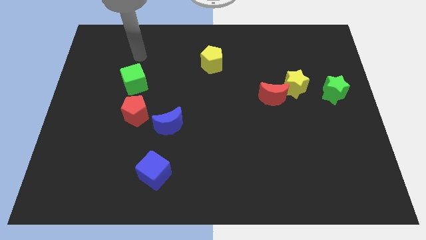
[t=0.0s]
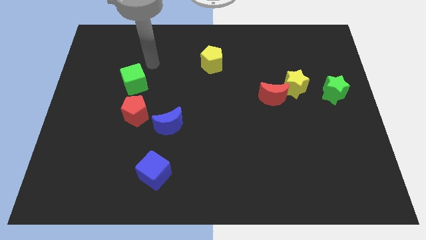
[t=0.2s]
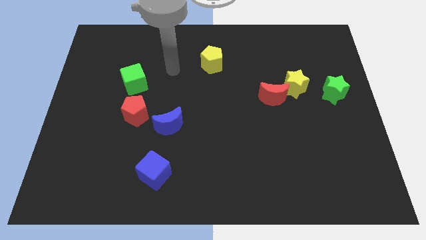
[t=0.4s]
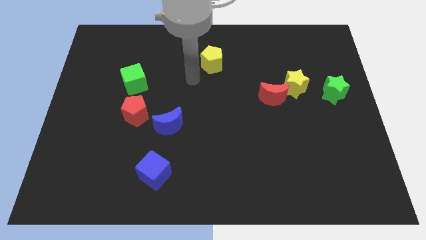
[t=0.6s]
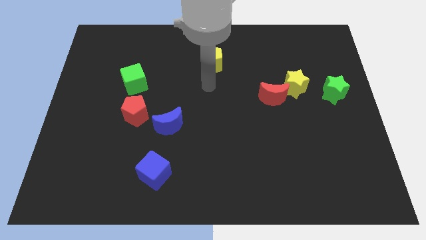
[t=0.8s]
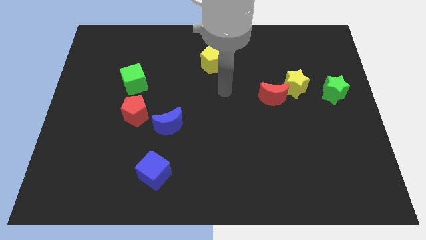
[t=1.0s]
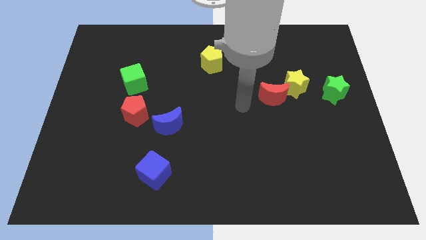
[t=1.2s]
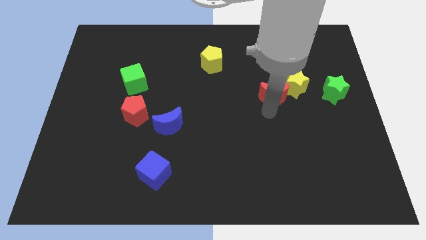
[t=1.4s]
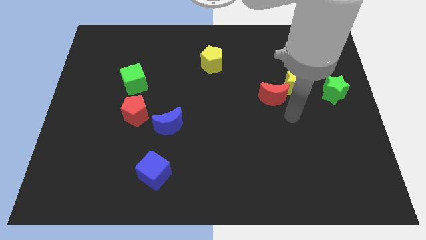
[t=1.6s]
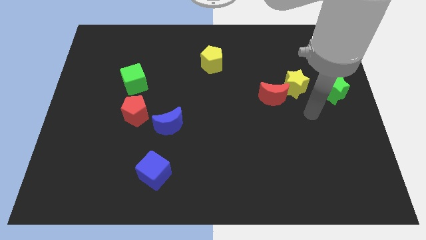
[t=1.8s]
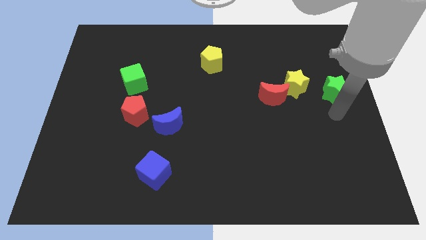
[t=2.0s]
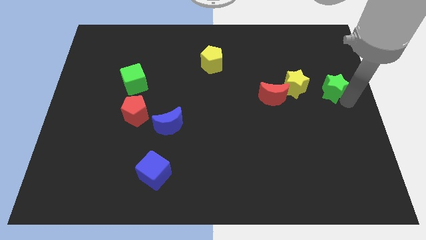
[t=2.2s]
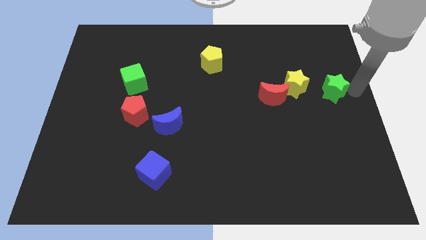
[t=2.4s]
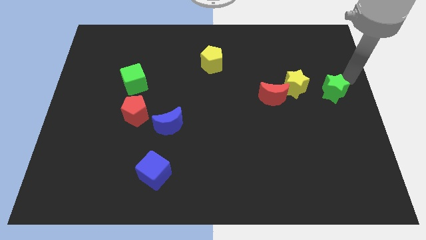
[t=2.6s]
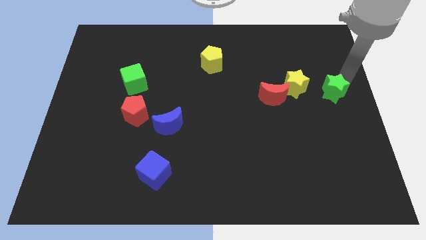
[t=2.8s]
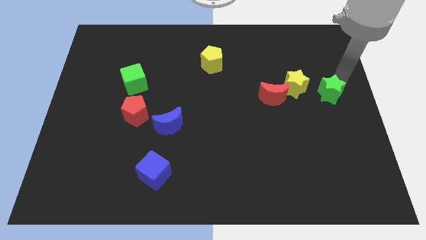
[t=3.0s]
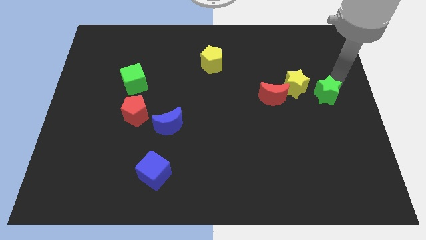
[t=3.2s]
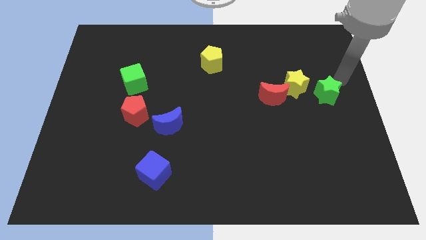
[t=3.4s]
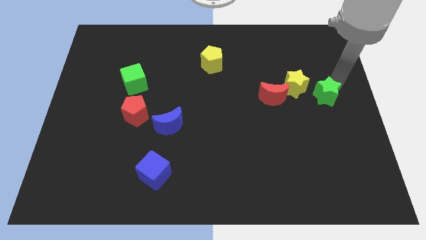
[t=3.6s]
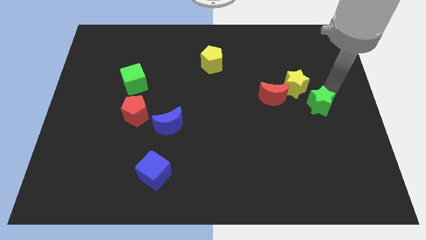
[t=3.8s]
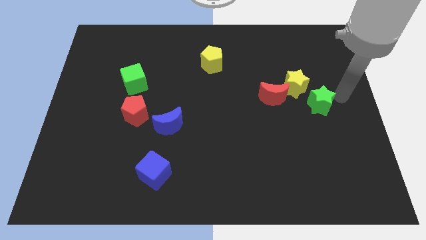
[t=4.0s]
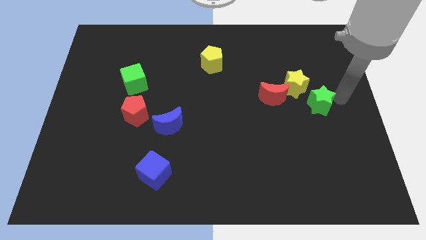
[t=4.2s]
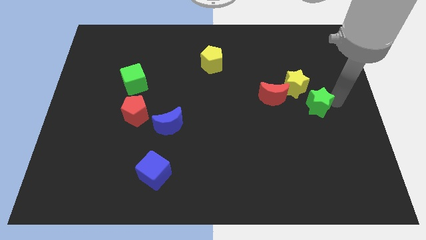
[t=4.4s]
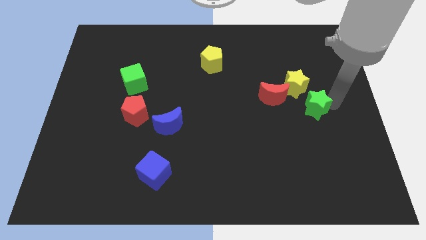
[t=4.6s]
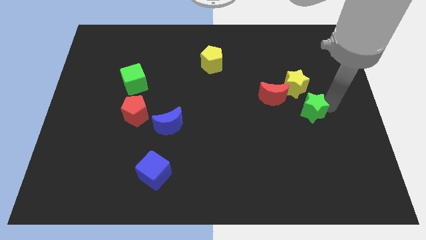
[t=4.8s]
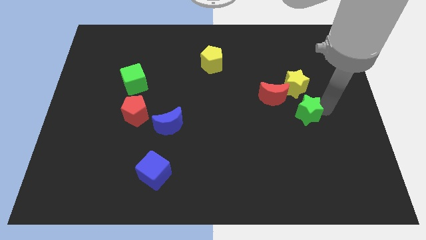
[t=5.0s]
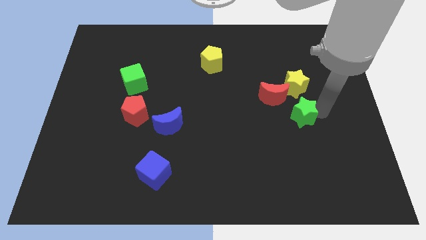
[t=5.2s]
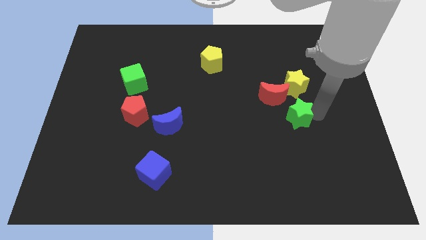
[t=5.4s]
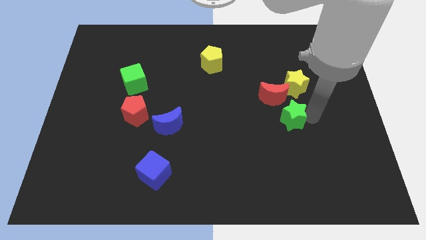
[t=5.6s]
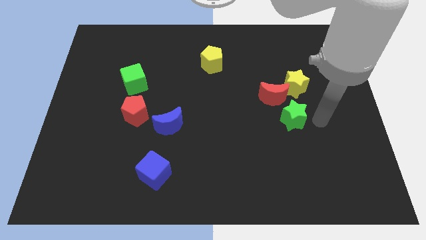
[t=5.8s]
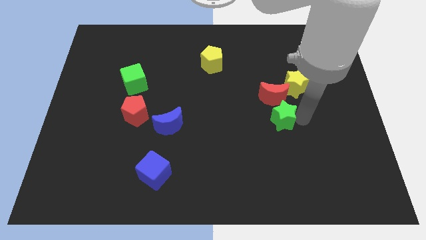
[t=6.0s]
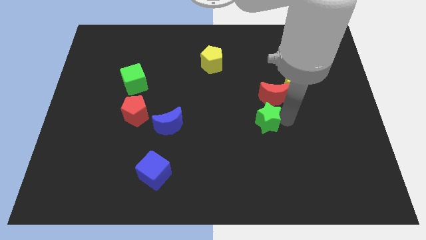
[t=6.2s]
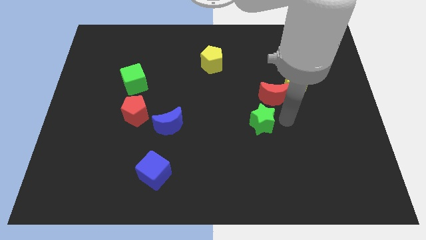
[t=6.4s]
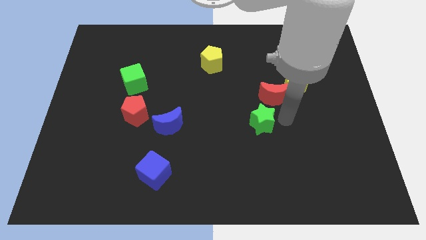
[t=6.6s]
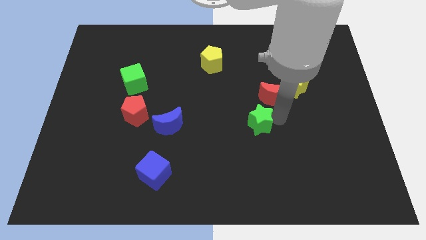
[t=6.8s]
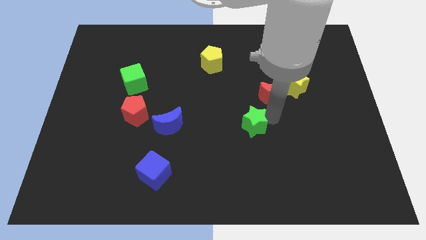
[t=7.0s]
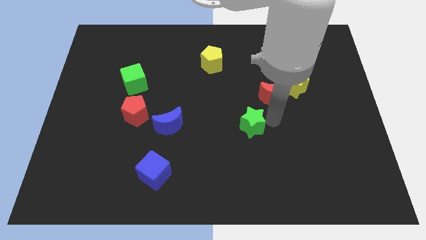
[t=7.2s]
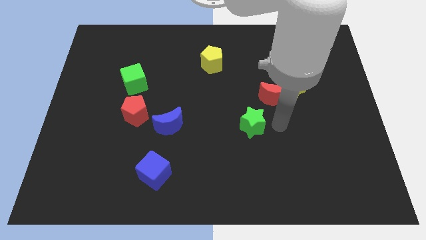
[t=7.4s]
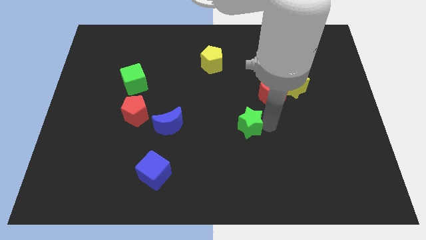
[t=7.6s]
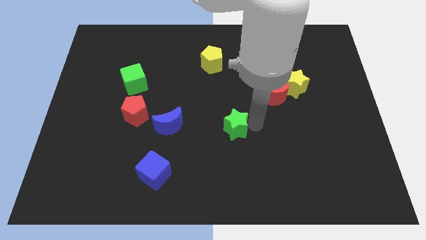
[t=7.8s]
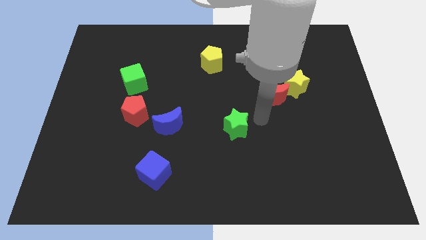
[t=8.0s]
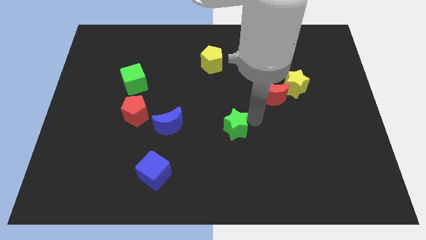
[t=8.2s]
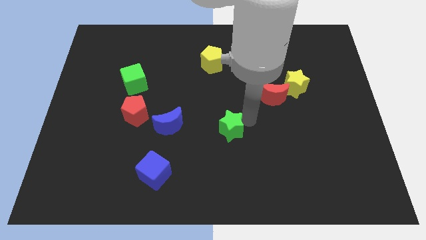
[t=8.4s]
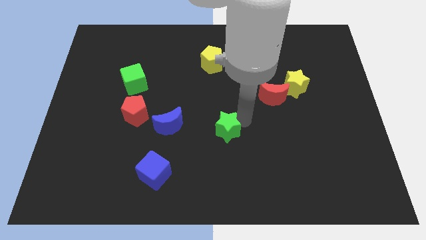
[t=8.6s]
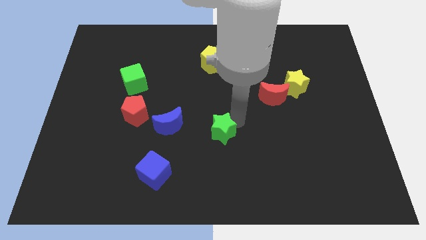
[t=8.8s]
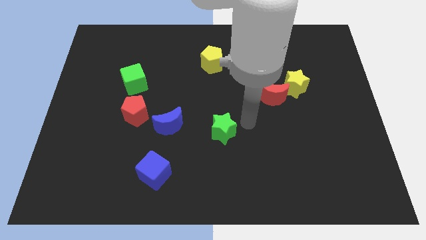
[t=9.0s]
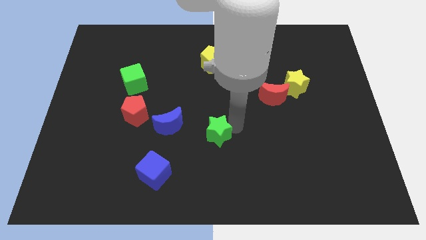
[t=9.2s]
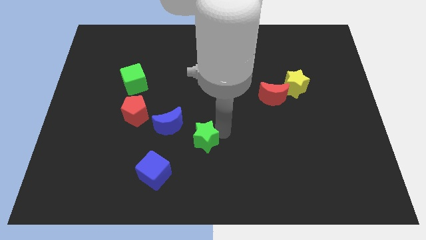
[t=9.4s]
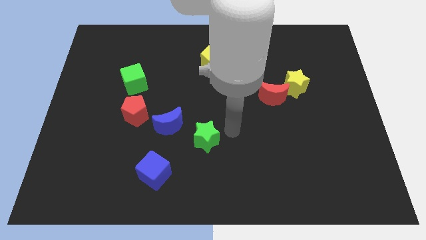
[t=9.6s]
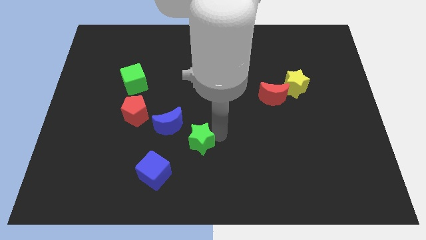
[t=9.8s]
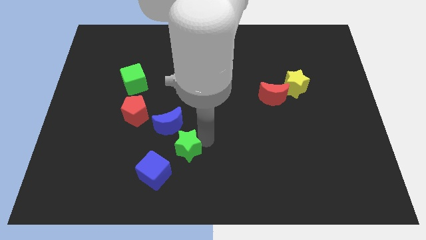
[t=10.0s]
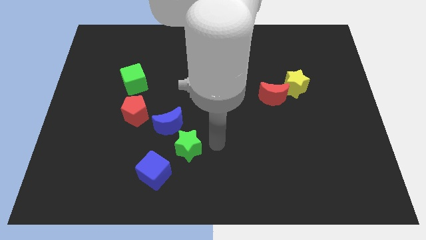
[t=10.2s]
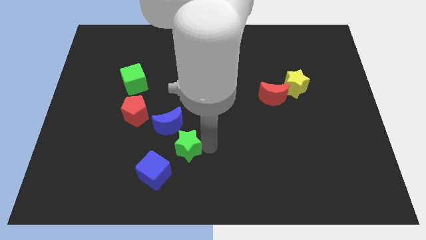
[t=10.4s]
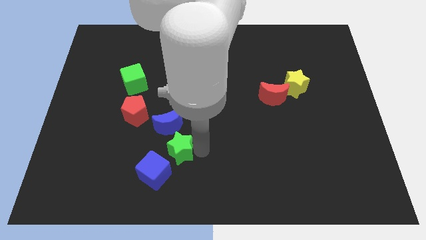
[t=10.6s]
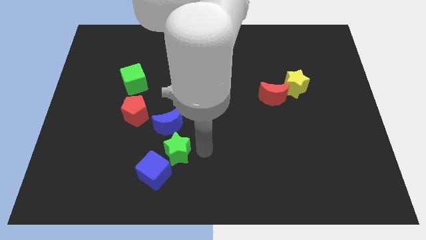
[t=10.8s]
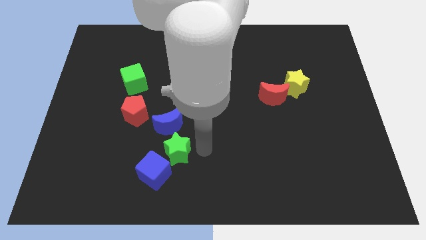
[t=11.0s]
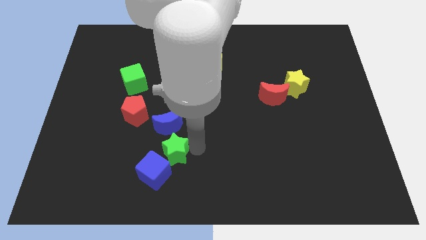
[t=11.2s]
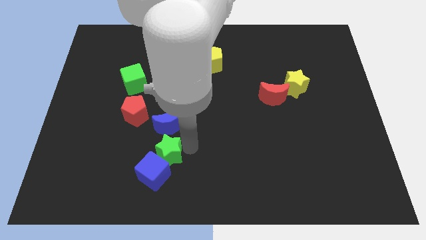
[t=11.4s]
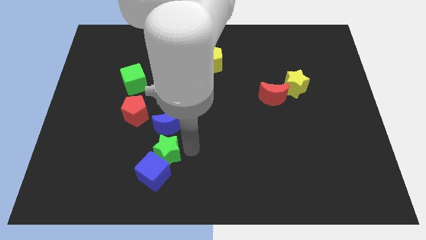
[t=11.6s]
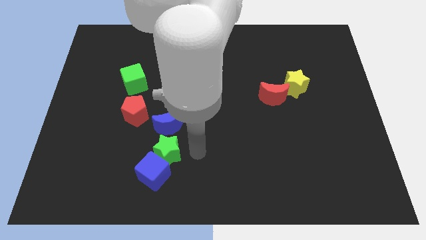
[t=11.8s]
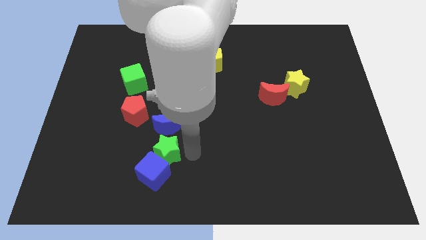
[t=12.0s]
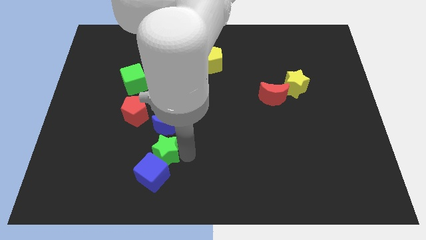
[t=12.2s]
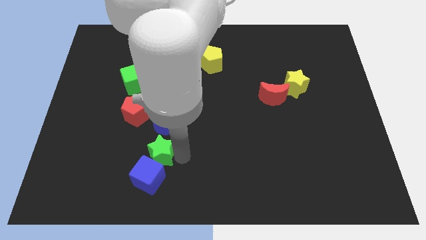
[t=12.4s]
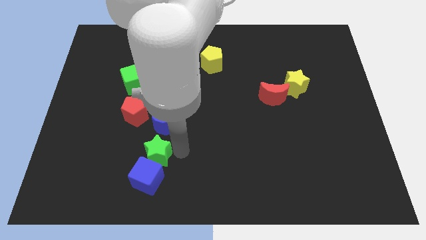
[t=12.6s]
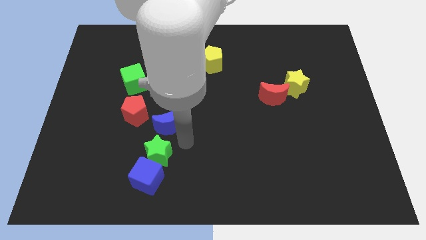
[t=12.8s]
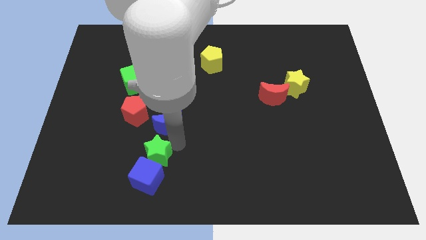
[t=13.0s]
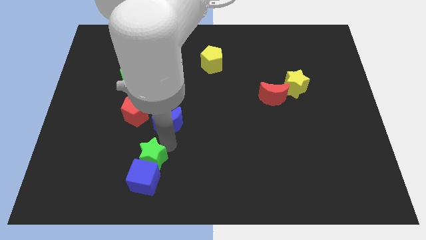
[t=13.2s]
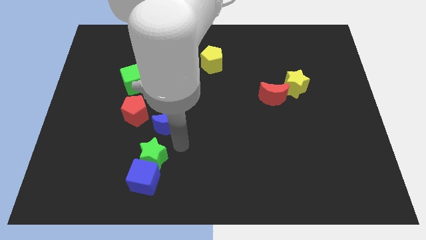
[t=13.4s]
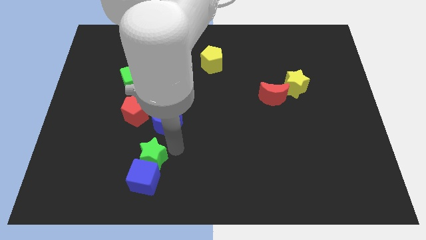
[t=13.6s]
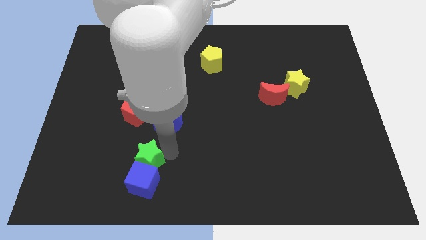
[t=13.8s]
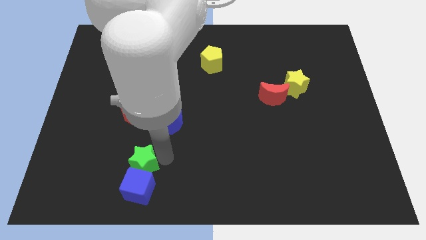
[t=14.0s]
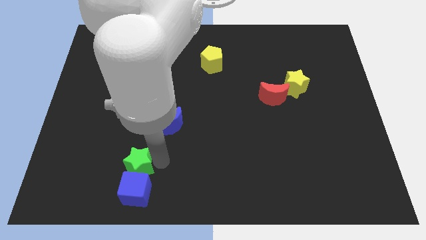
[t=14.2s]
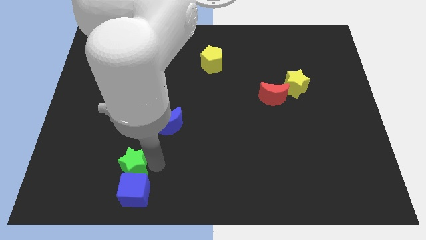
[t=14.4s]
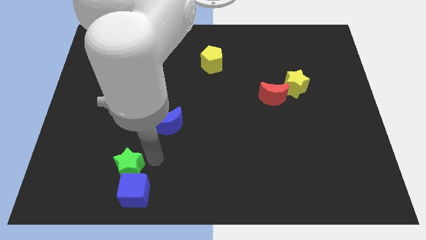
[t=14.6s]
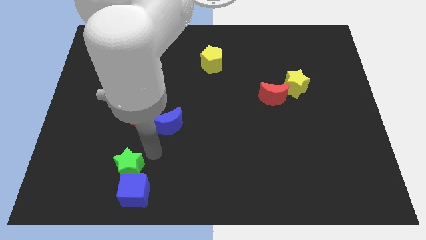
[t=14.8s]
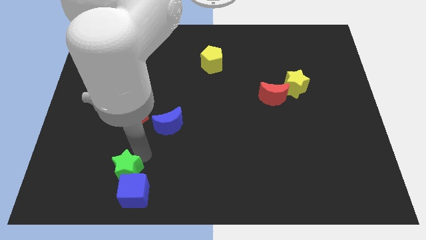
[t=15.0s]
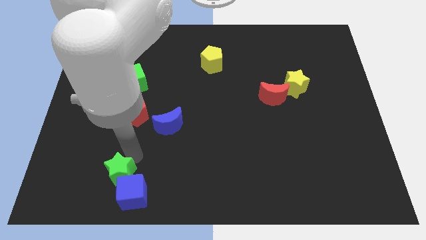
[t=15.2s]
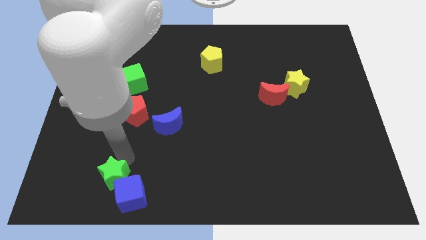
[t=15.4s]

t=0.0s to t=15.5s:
push the green star to the left side of the blue cube
